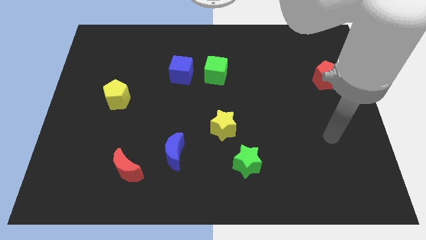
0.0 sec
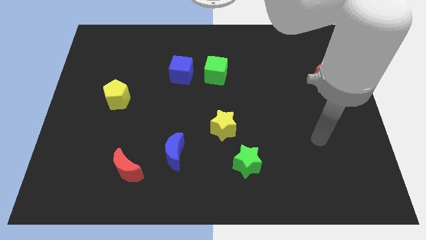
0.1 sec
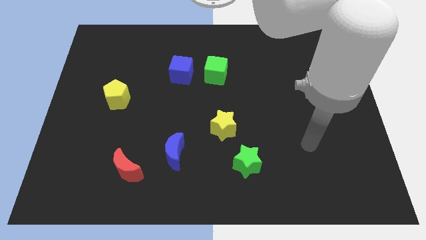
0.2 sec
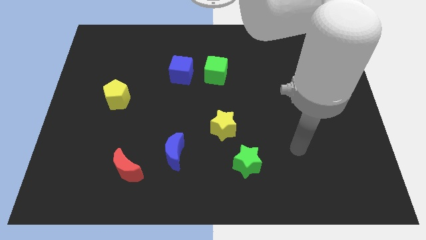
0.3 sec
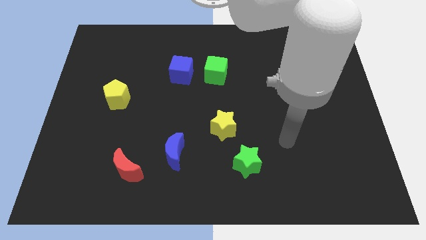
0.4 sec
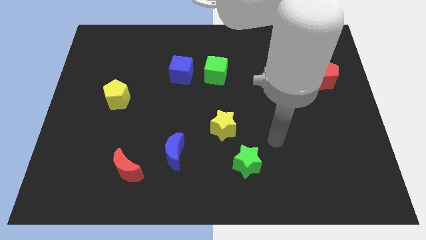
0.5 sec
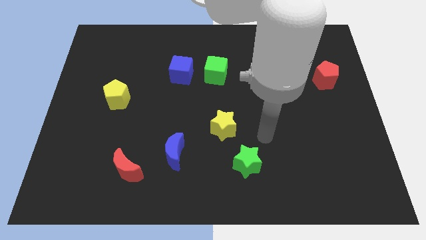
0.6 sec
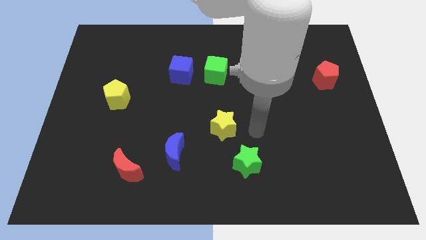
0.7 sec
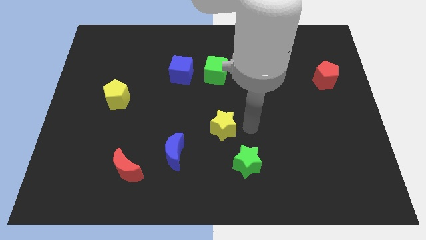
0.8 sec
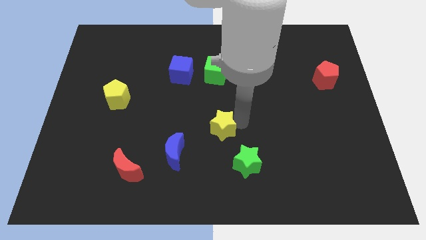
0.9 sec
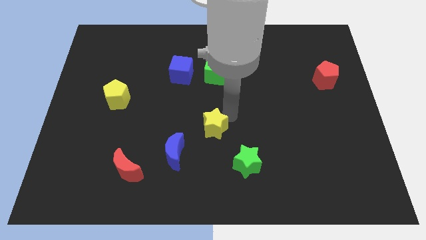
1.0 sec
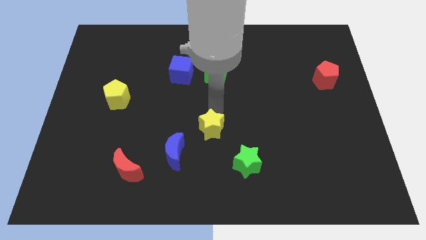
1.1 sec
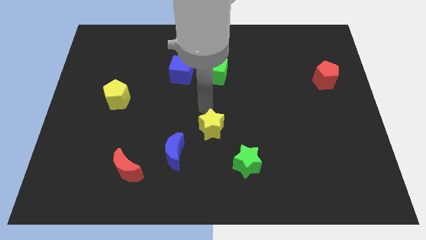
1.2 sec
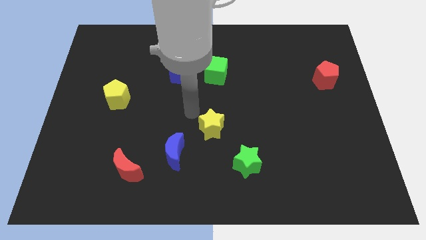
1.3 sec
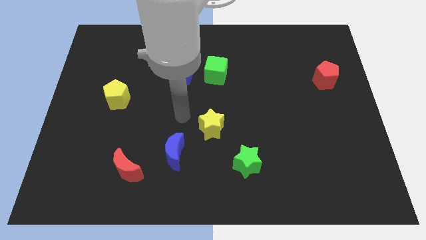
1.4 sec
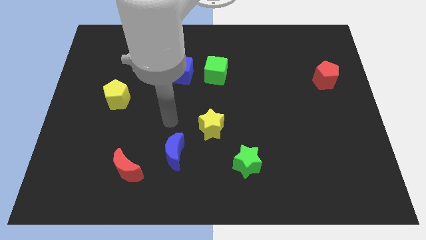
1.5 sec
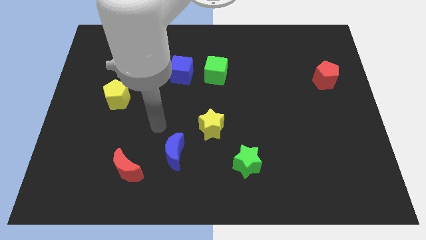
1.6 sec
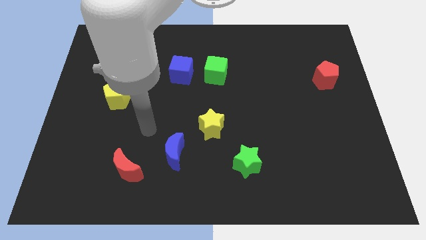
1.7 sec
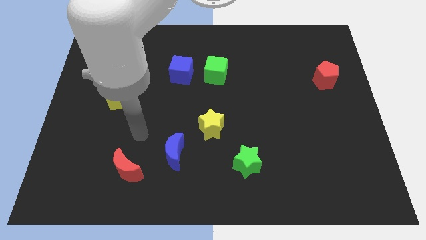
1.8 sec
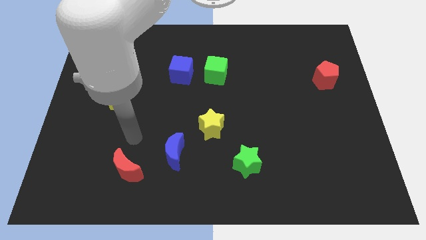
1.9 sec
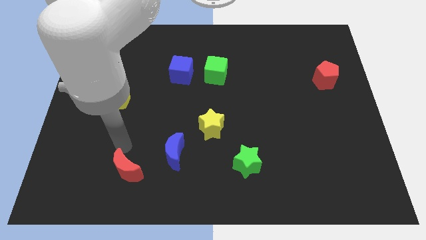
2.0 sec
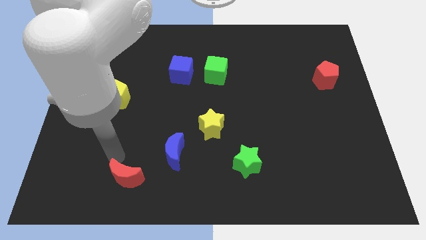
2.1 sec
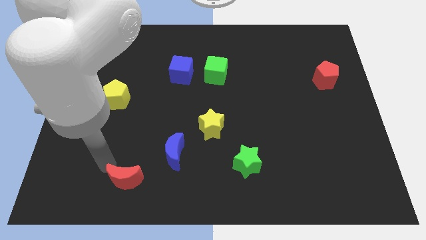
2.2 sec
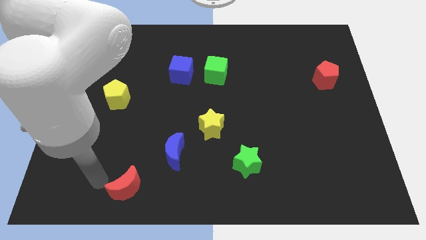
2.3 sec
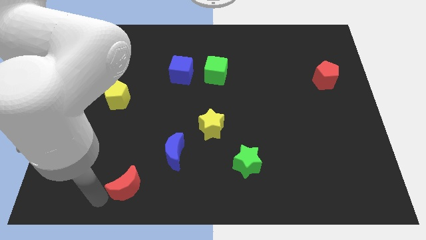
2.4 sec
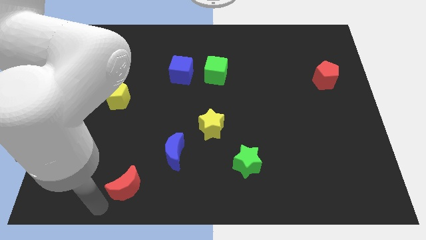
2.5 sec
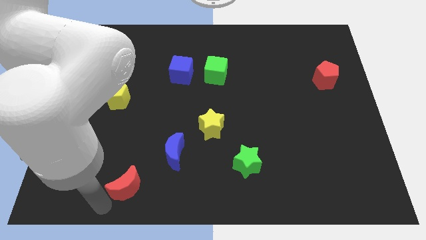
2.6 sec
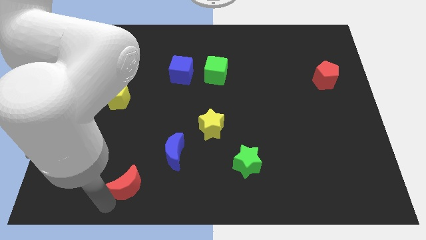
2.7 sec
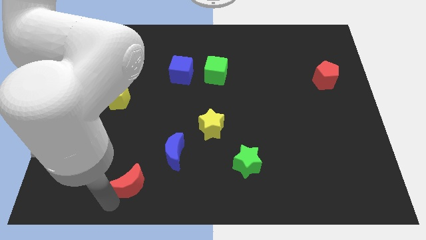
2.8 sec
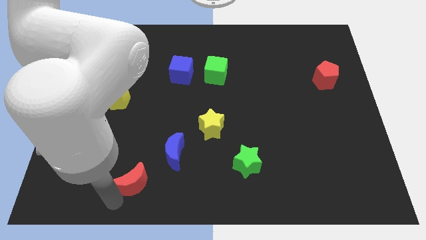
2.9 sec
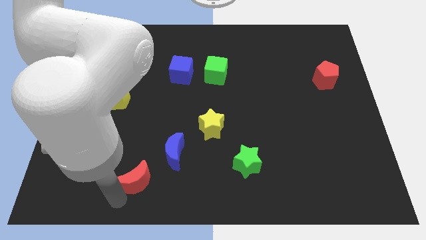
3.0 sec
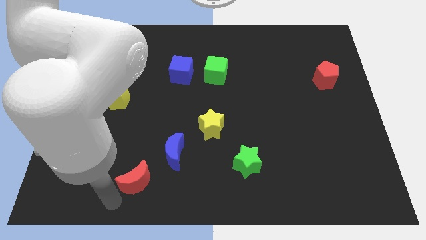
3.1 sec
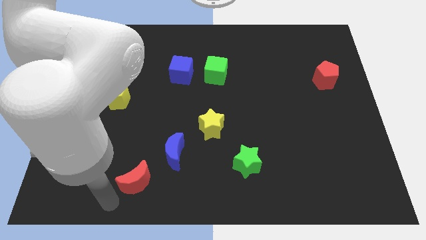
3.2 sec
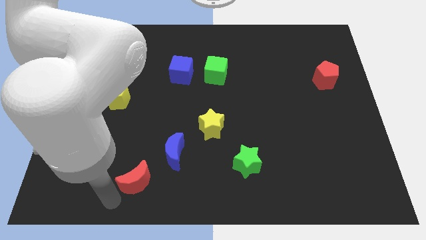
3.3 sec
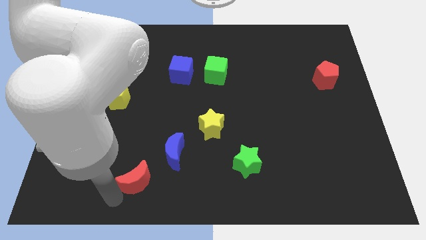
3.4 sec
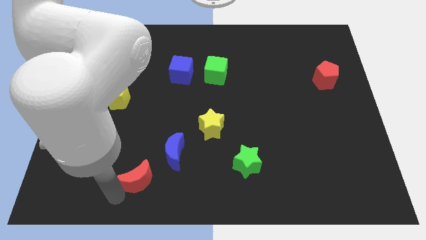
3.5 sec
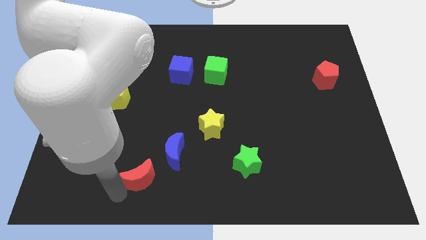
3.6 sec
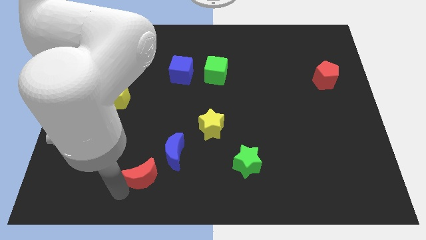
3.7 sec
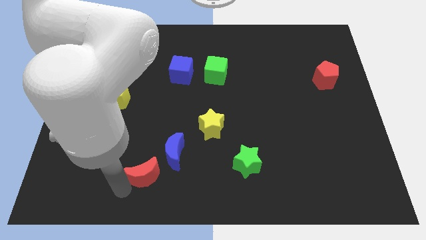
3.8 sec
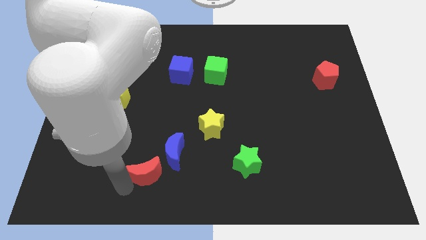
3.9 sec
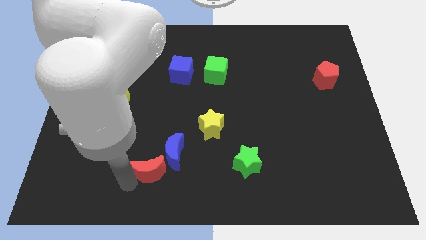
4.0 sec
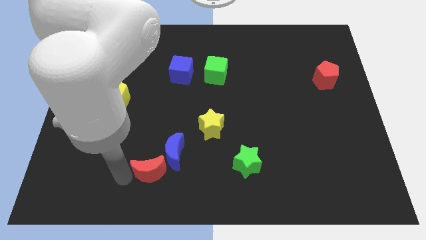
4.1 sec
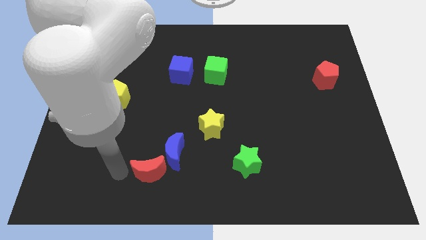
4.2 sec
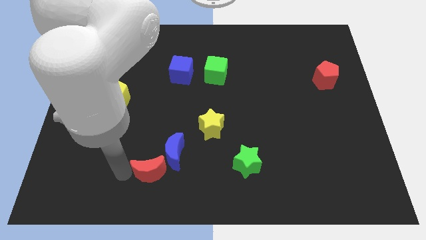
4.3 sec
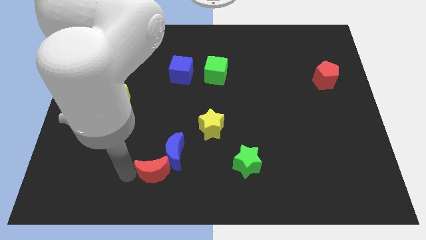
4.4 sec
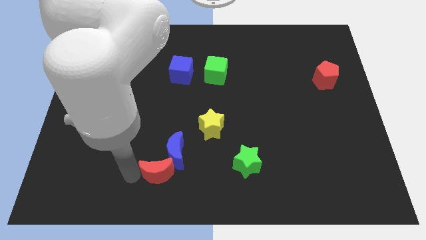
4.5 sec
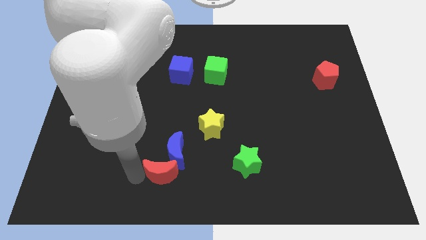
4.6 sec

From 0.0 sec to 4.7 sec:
slide the red moon to the right somewhat

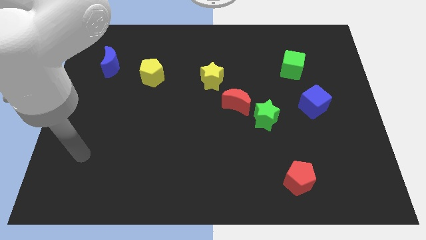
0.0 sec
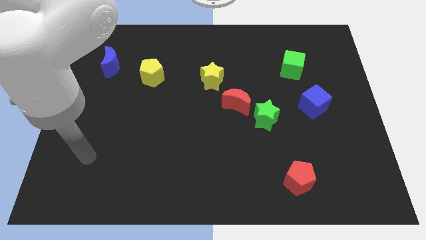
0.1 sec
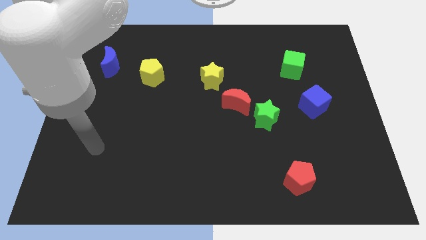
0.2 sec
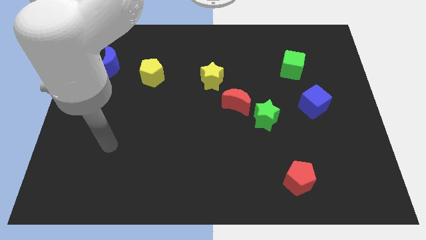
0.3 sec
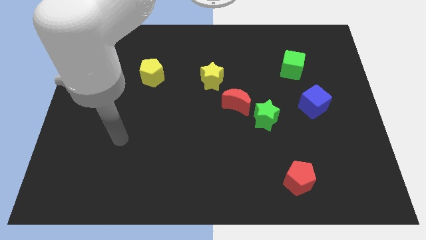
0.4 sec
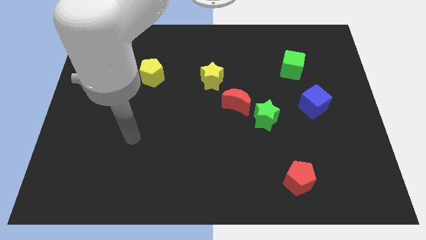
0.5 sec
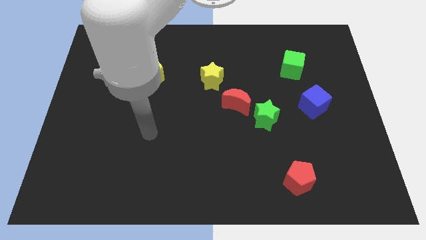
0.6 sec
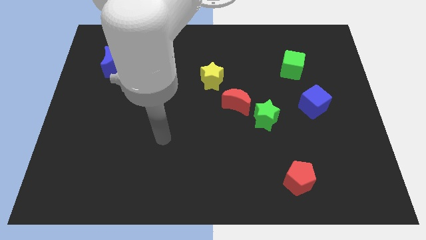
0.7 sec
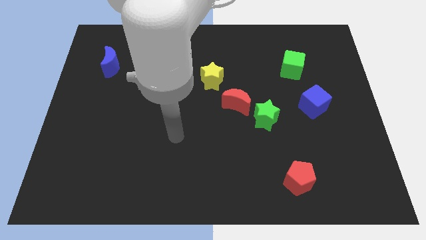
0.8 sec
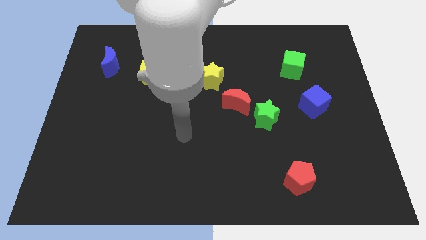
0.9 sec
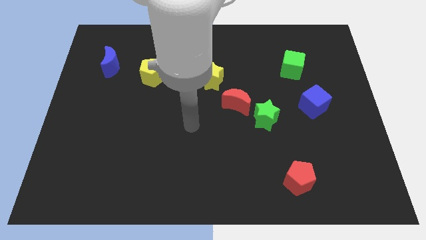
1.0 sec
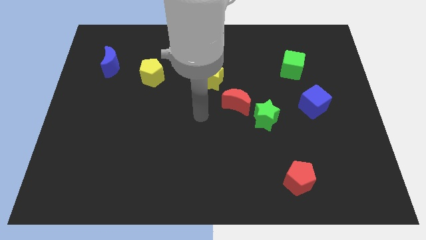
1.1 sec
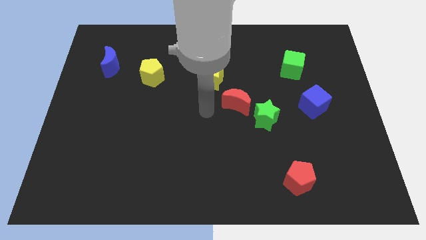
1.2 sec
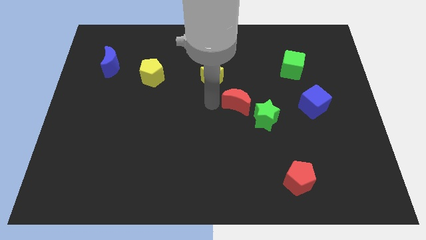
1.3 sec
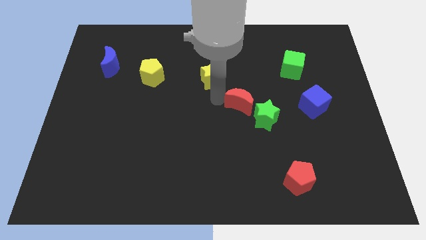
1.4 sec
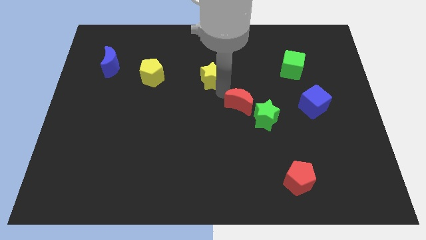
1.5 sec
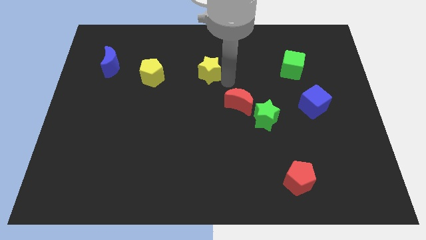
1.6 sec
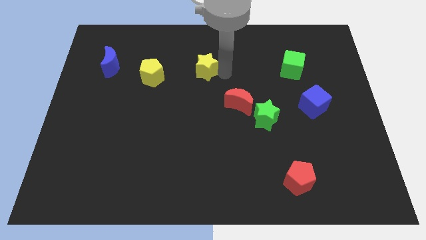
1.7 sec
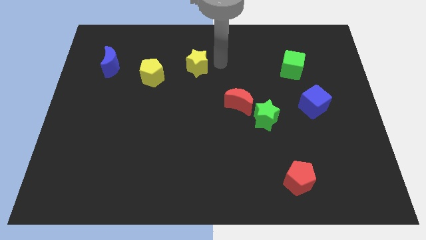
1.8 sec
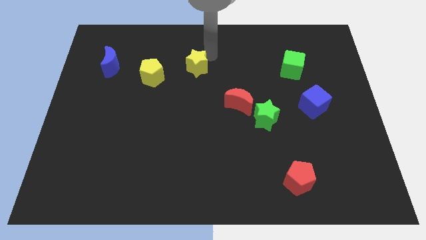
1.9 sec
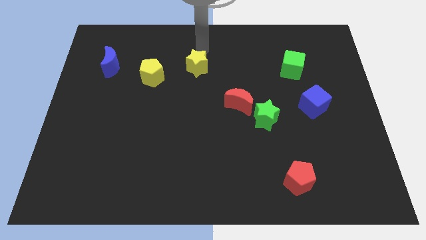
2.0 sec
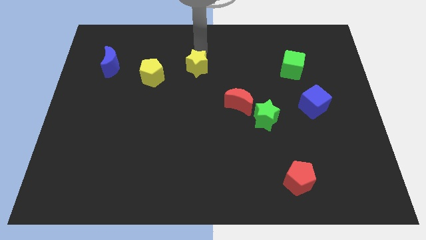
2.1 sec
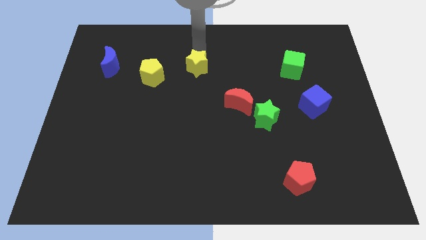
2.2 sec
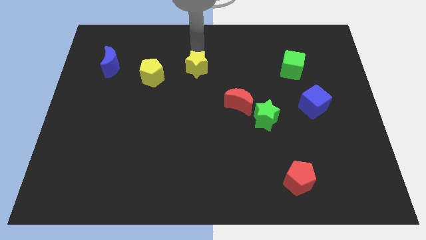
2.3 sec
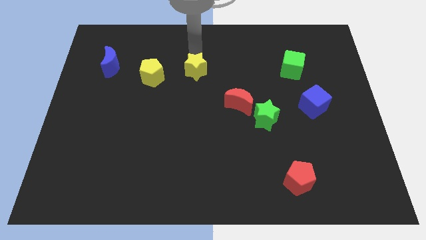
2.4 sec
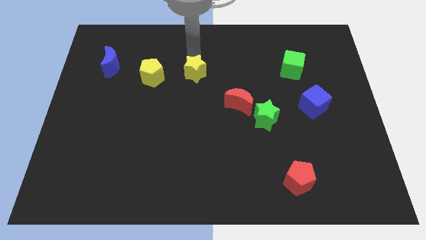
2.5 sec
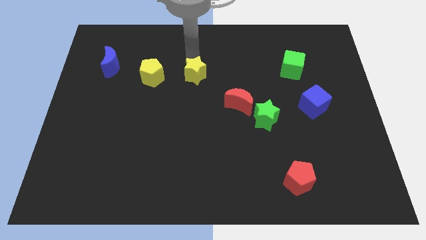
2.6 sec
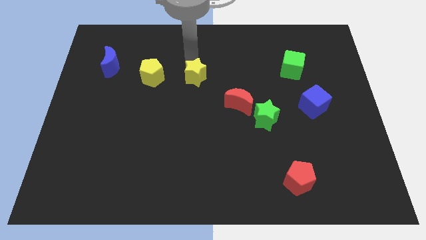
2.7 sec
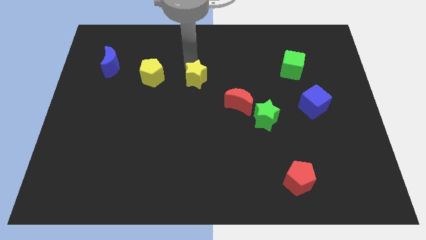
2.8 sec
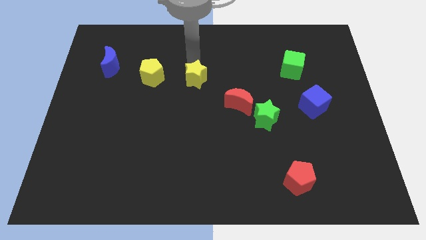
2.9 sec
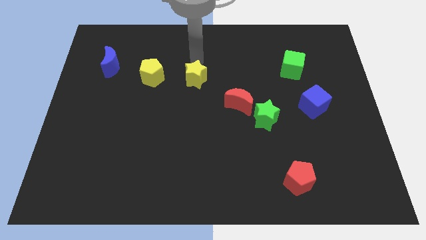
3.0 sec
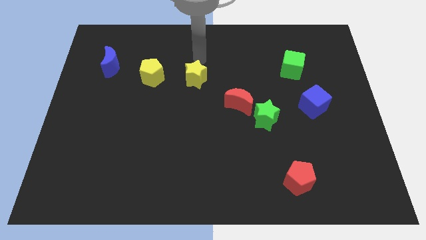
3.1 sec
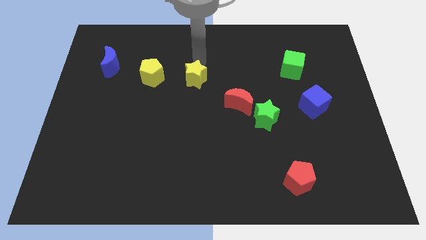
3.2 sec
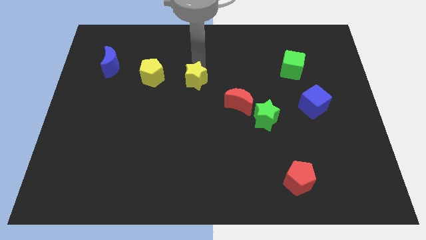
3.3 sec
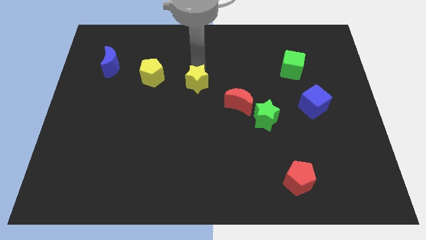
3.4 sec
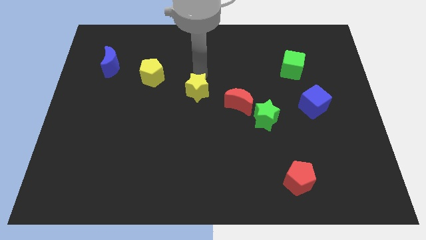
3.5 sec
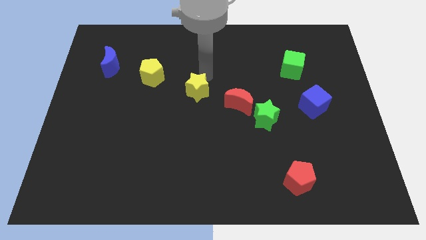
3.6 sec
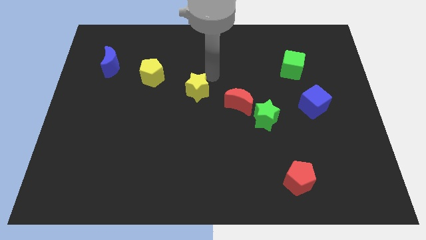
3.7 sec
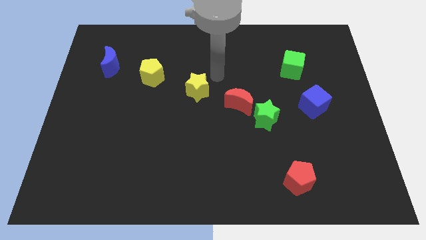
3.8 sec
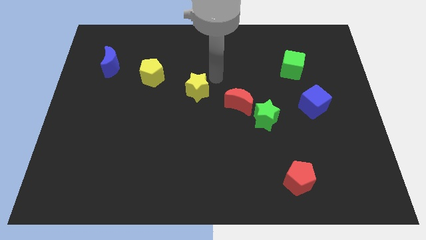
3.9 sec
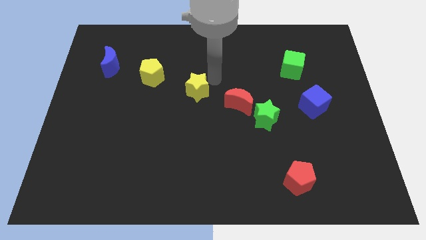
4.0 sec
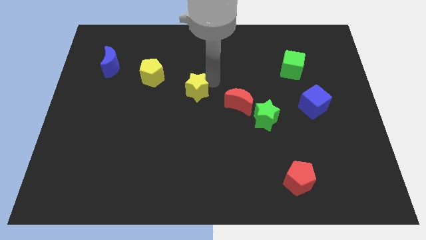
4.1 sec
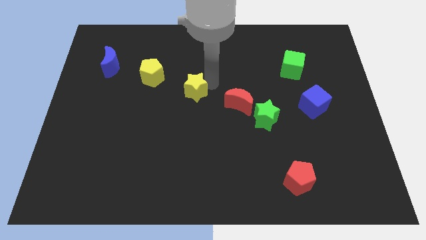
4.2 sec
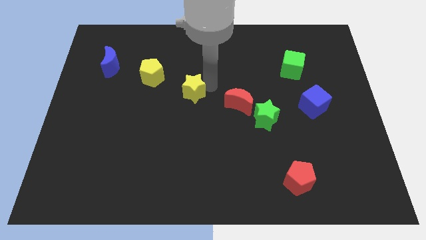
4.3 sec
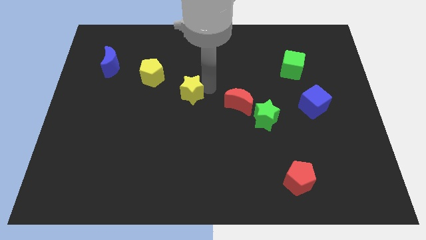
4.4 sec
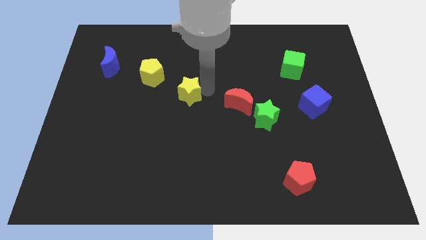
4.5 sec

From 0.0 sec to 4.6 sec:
slightly move the yellow star downwards and left diagonally
